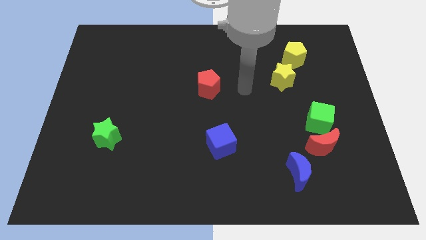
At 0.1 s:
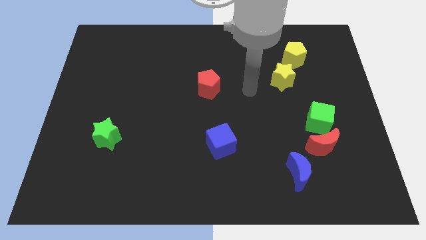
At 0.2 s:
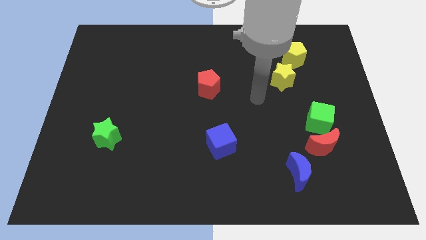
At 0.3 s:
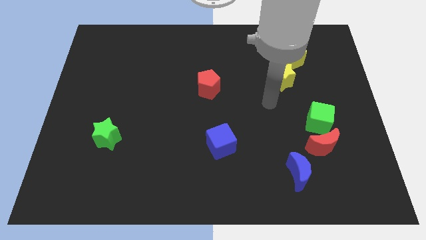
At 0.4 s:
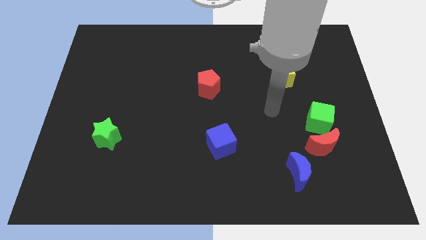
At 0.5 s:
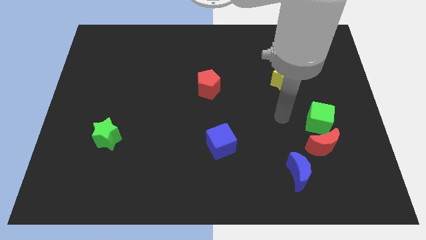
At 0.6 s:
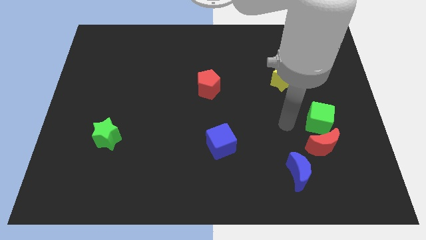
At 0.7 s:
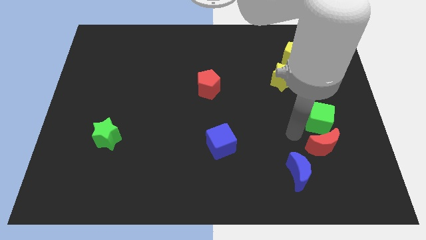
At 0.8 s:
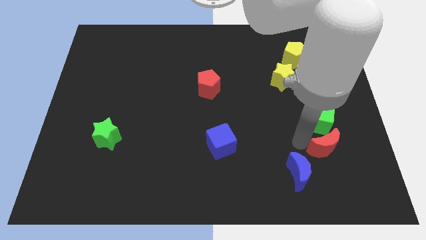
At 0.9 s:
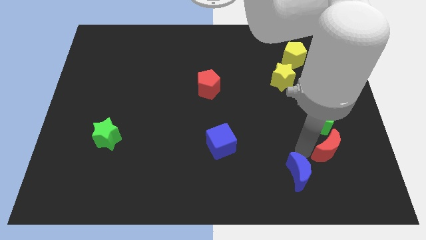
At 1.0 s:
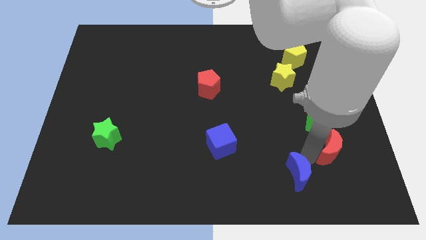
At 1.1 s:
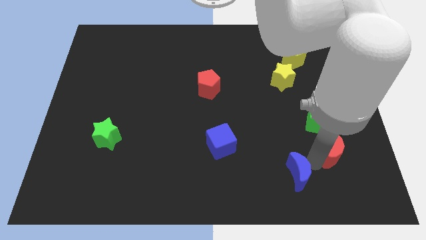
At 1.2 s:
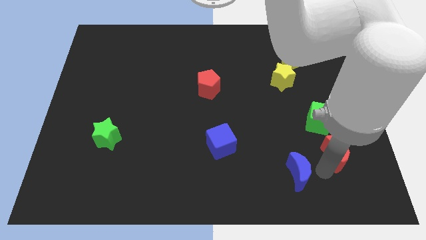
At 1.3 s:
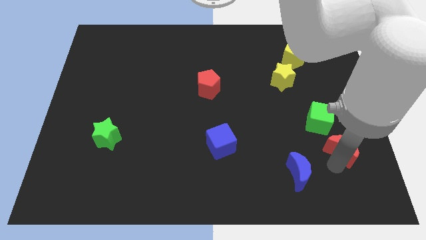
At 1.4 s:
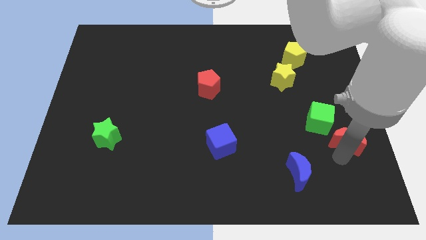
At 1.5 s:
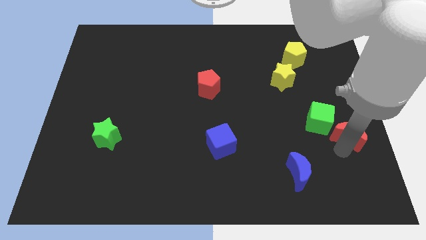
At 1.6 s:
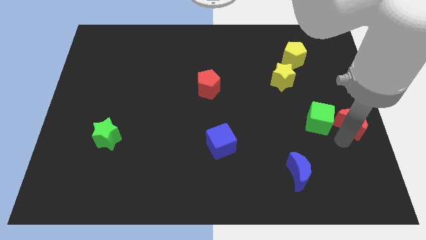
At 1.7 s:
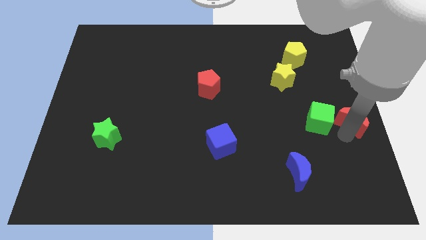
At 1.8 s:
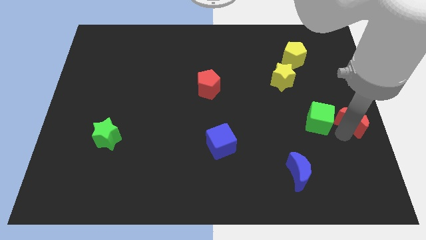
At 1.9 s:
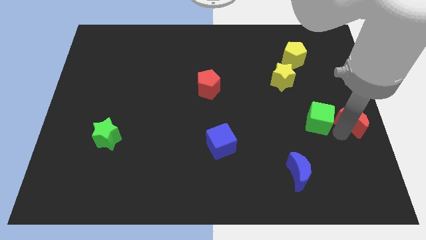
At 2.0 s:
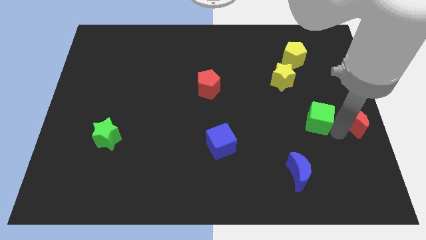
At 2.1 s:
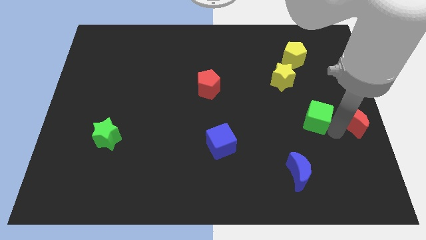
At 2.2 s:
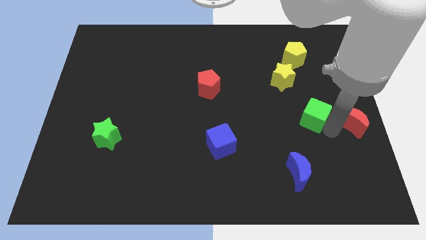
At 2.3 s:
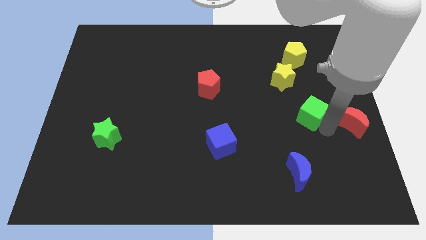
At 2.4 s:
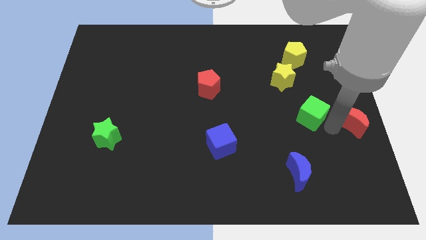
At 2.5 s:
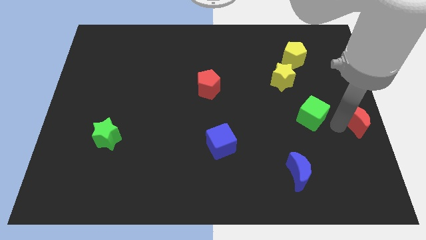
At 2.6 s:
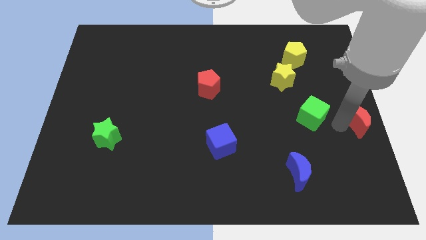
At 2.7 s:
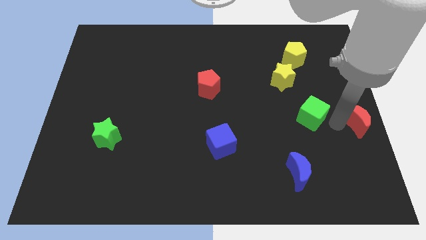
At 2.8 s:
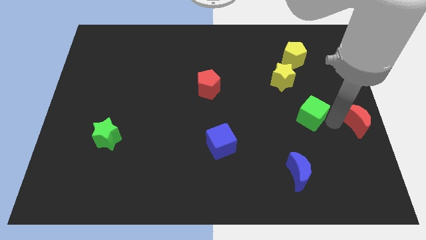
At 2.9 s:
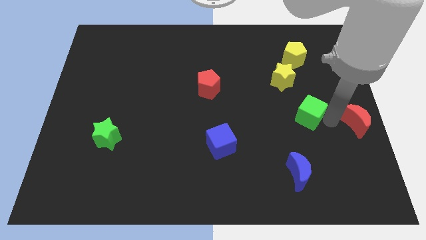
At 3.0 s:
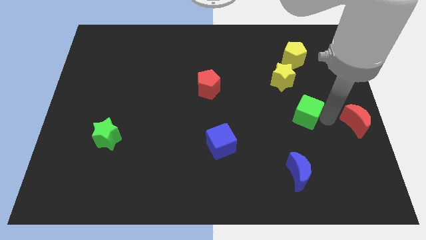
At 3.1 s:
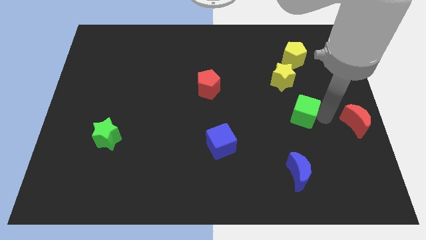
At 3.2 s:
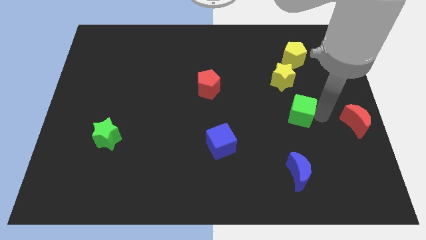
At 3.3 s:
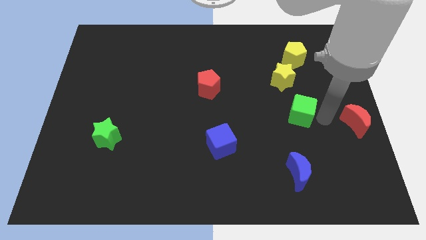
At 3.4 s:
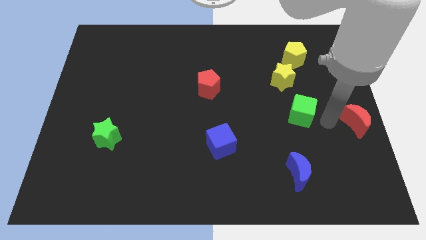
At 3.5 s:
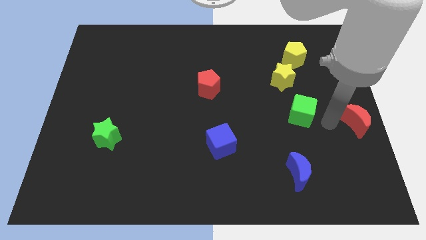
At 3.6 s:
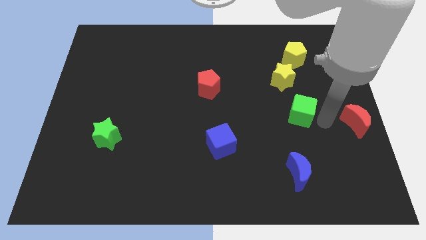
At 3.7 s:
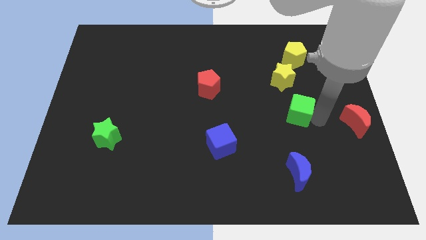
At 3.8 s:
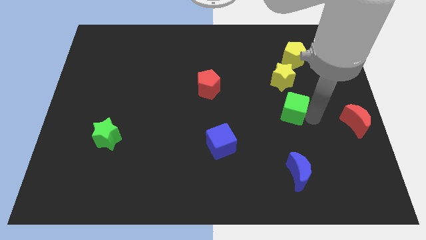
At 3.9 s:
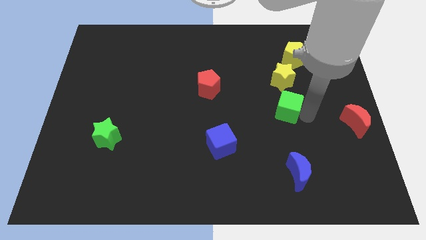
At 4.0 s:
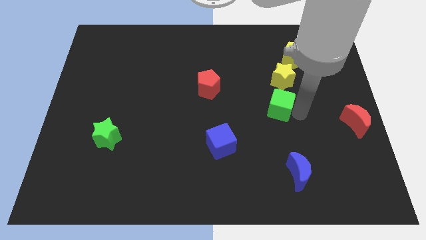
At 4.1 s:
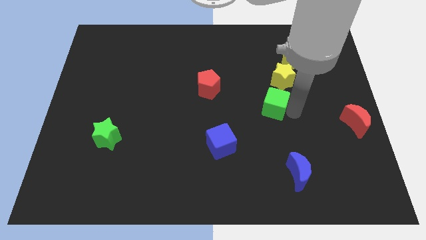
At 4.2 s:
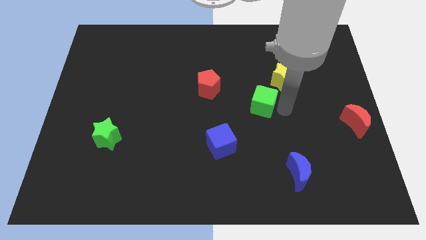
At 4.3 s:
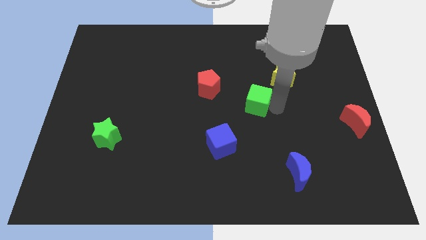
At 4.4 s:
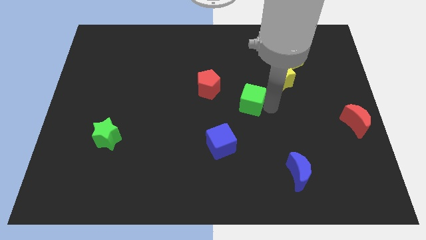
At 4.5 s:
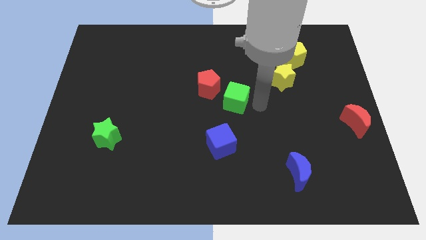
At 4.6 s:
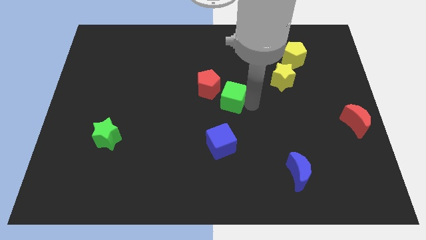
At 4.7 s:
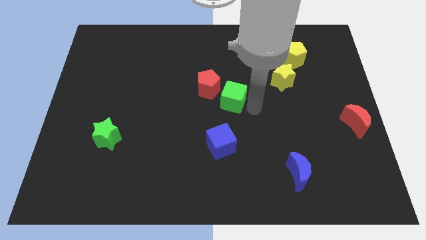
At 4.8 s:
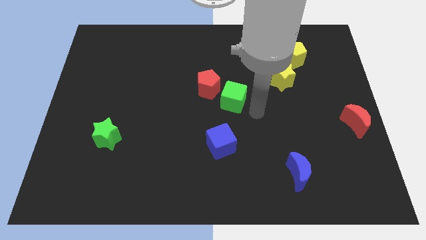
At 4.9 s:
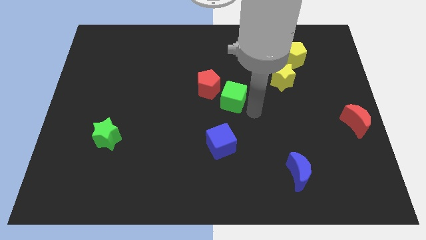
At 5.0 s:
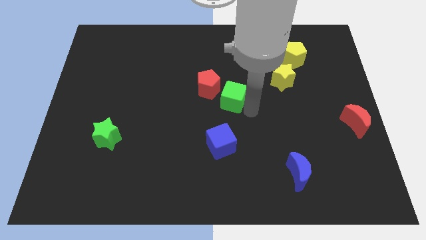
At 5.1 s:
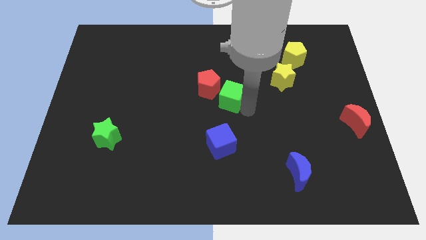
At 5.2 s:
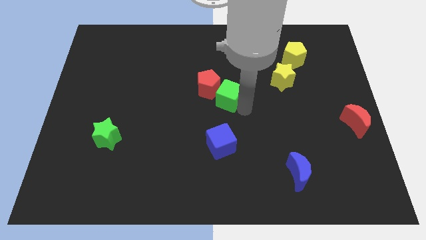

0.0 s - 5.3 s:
move the green cube to the red pentagon

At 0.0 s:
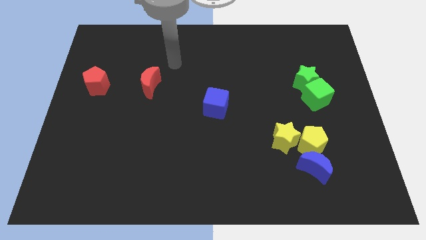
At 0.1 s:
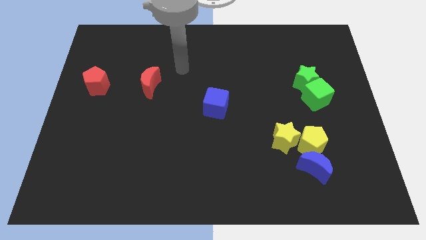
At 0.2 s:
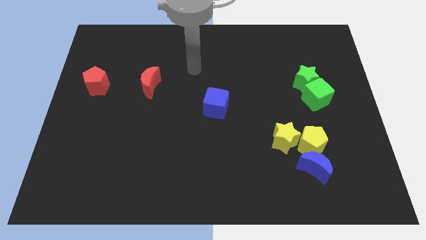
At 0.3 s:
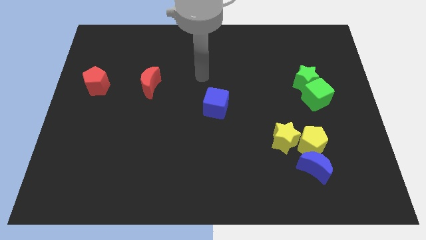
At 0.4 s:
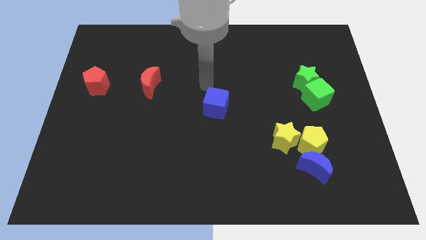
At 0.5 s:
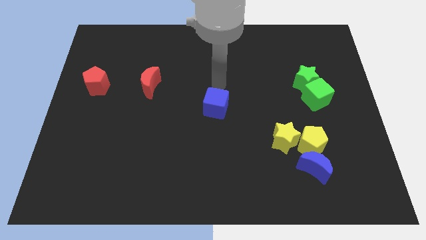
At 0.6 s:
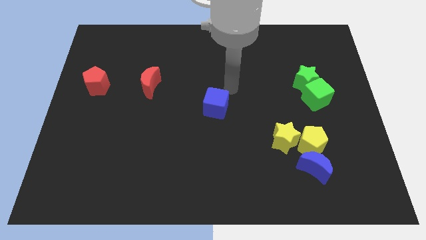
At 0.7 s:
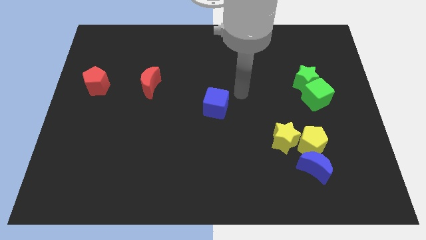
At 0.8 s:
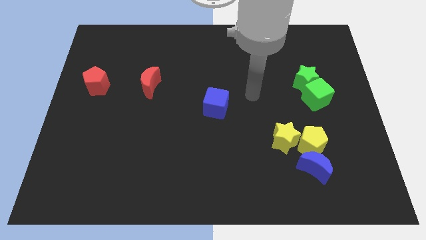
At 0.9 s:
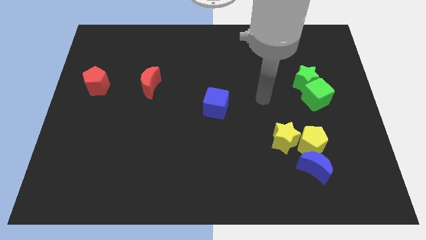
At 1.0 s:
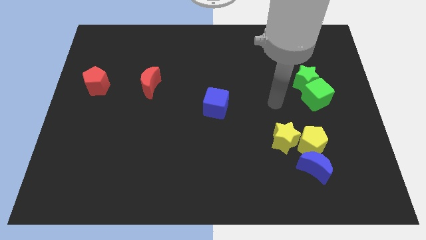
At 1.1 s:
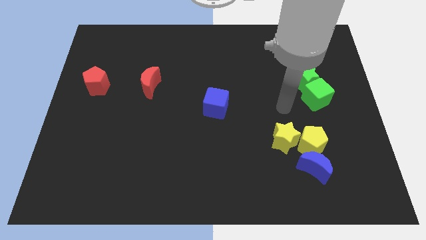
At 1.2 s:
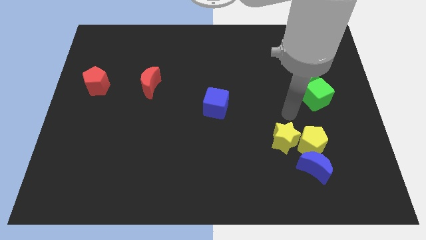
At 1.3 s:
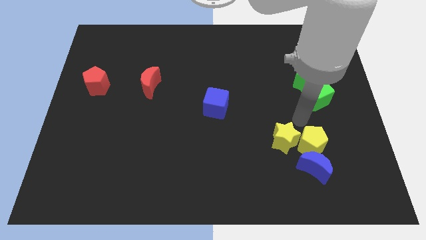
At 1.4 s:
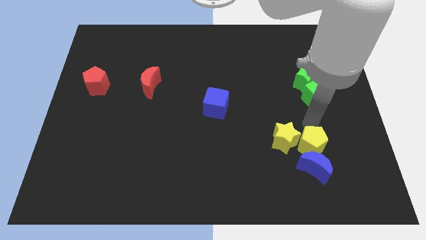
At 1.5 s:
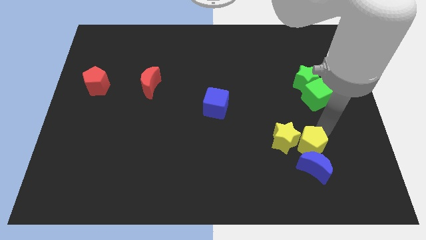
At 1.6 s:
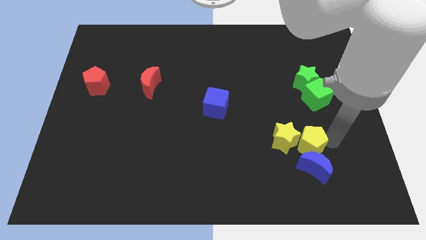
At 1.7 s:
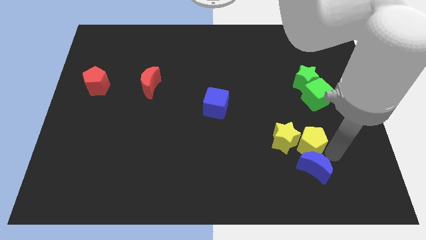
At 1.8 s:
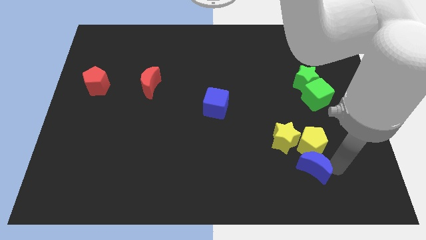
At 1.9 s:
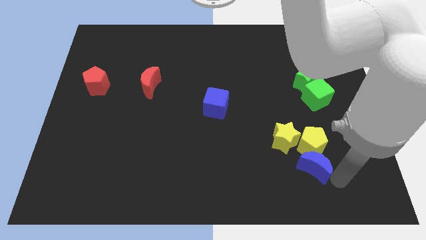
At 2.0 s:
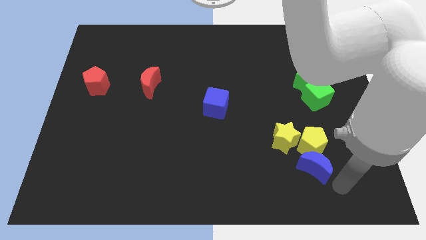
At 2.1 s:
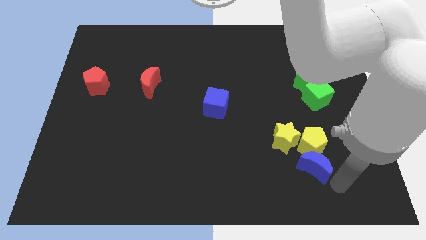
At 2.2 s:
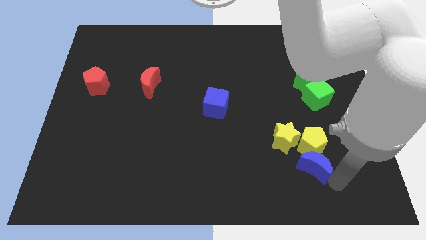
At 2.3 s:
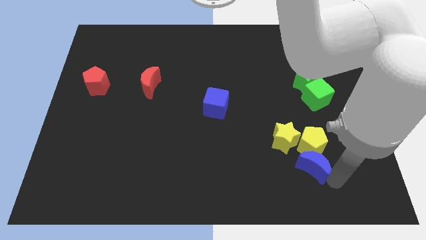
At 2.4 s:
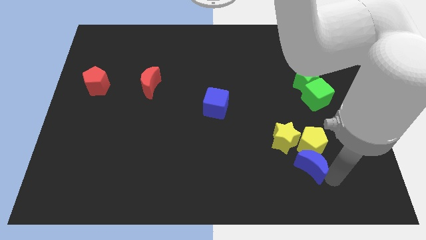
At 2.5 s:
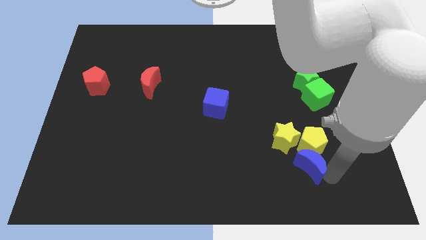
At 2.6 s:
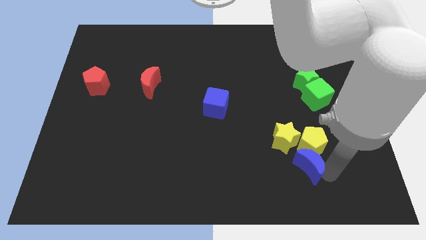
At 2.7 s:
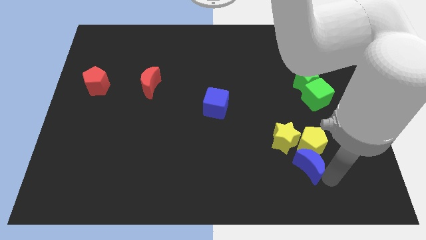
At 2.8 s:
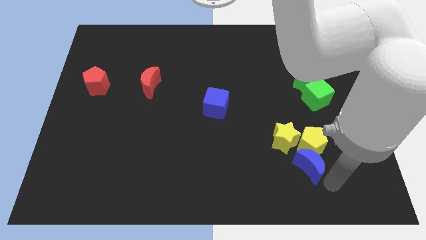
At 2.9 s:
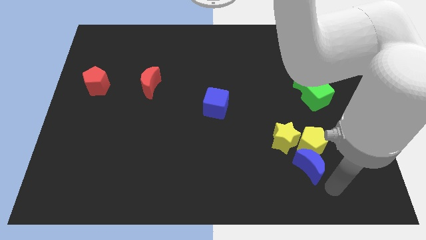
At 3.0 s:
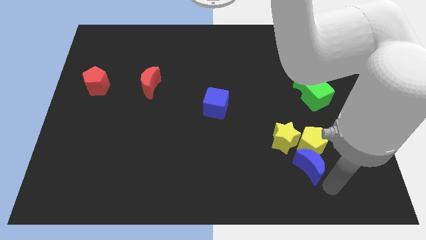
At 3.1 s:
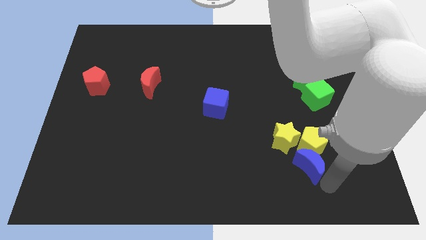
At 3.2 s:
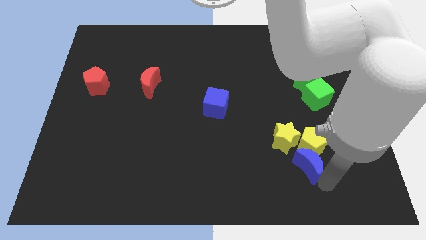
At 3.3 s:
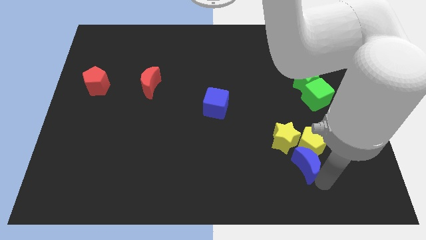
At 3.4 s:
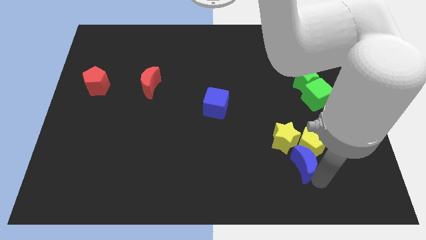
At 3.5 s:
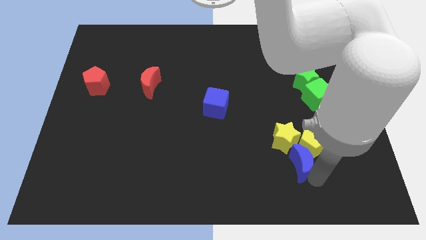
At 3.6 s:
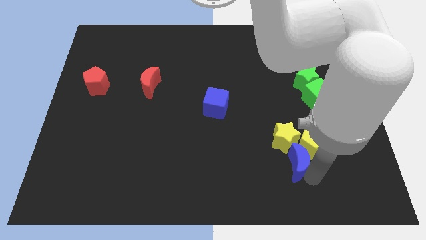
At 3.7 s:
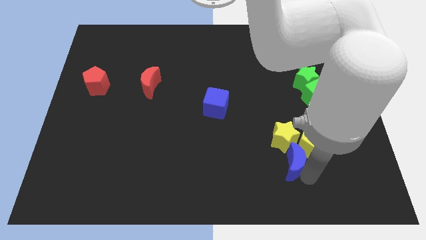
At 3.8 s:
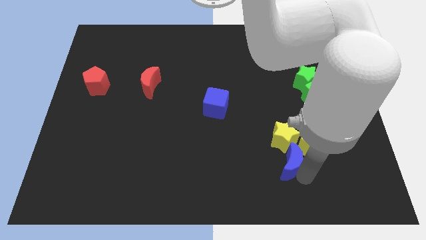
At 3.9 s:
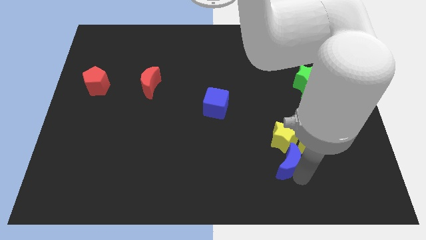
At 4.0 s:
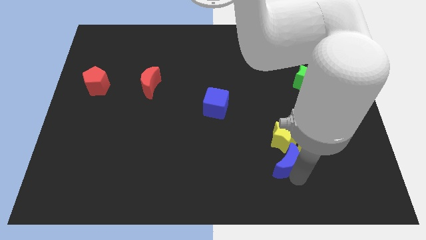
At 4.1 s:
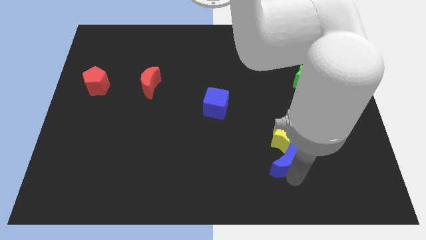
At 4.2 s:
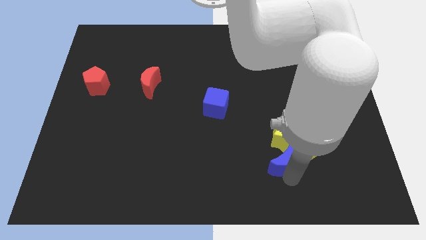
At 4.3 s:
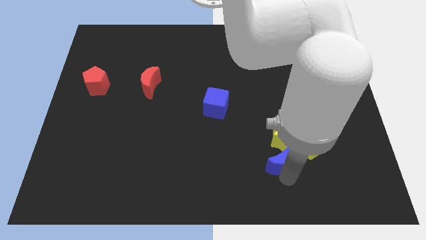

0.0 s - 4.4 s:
move the blue moon to the yellow star
